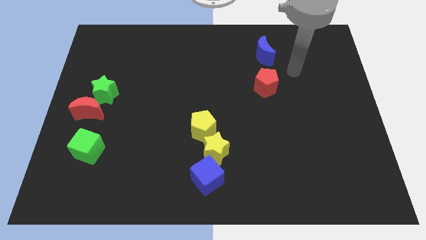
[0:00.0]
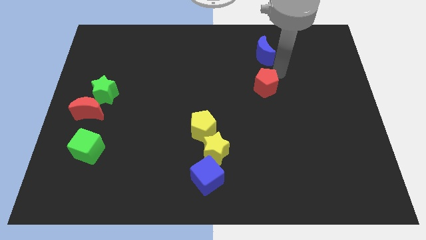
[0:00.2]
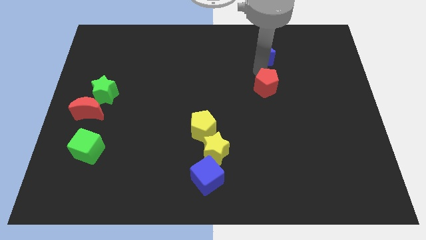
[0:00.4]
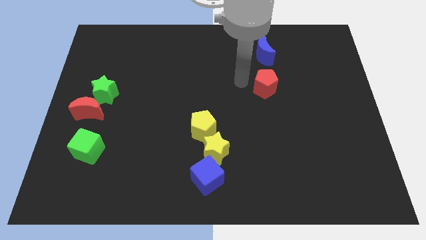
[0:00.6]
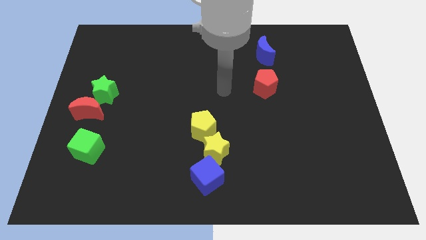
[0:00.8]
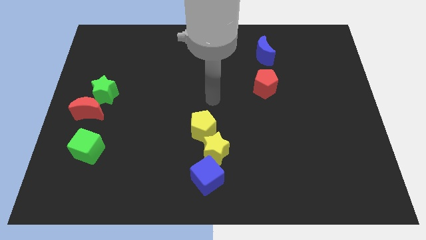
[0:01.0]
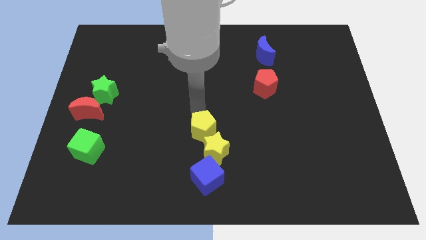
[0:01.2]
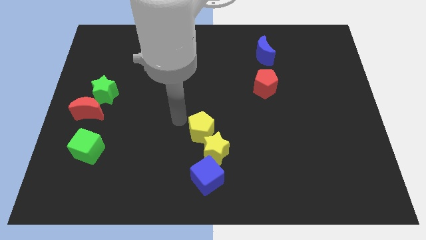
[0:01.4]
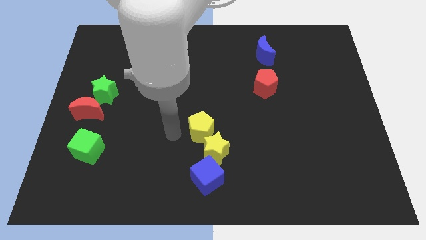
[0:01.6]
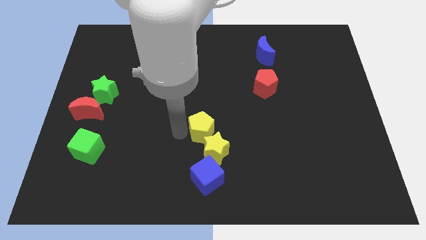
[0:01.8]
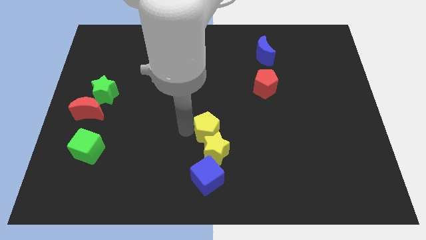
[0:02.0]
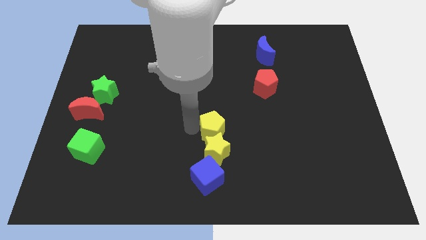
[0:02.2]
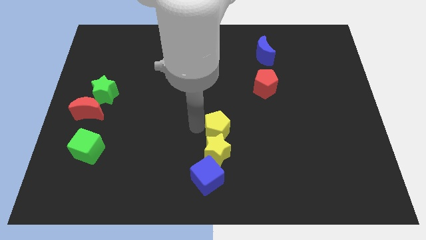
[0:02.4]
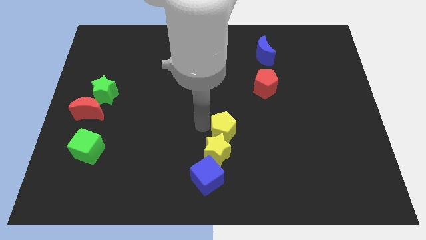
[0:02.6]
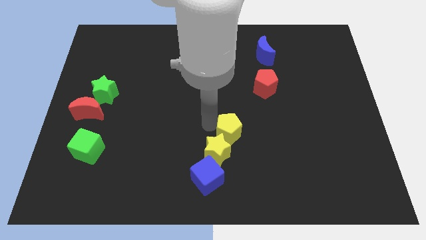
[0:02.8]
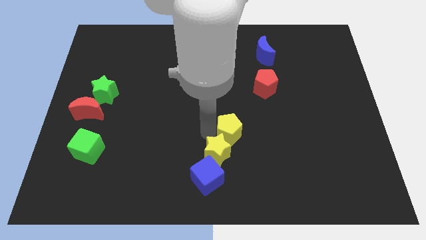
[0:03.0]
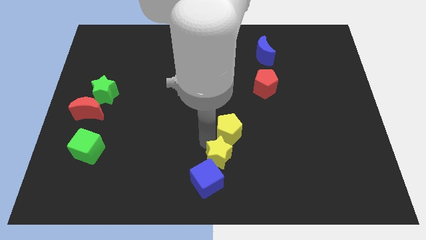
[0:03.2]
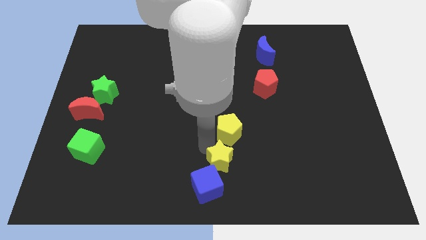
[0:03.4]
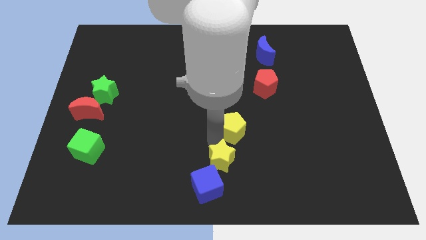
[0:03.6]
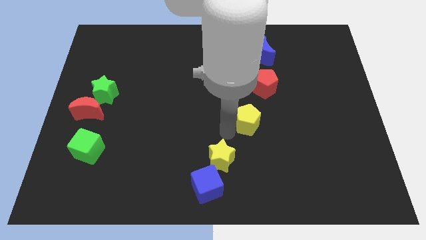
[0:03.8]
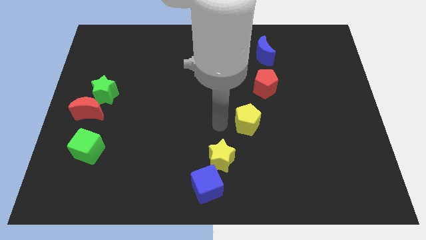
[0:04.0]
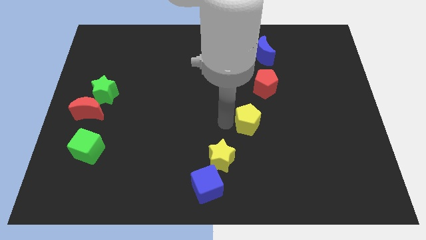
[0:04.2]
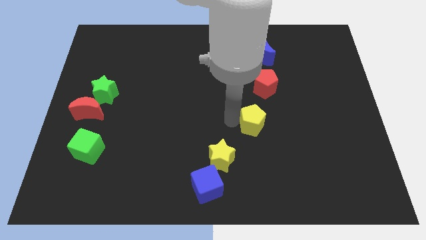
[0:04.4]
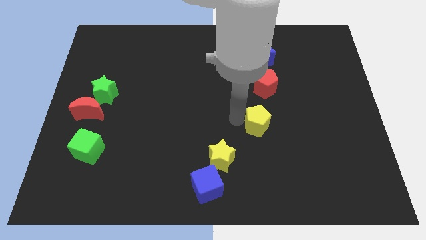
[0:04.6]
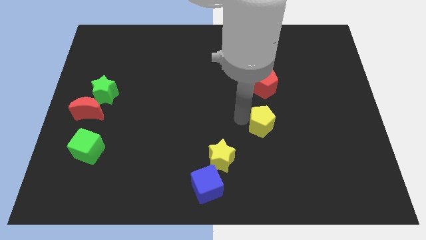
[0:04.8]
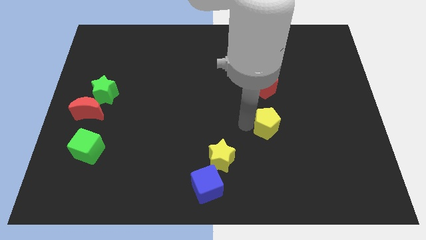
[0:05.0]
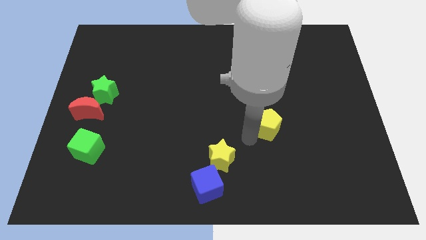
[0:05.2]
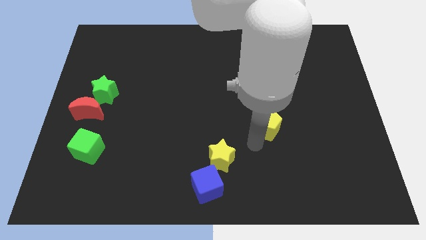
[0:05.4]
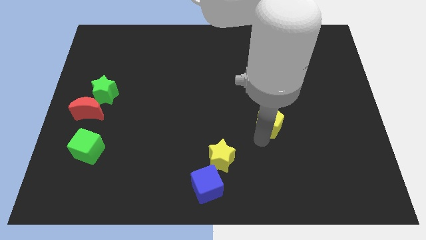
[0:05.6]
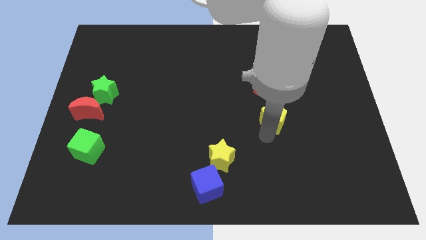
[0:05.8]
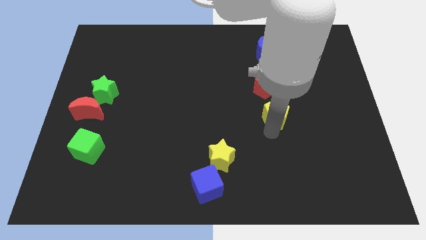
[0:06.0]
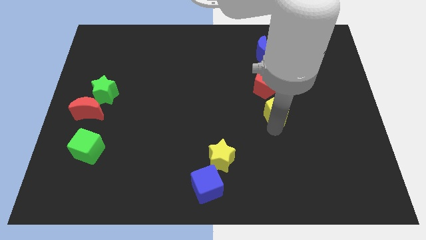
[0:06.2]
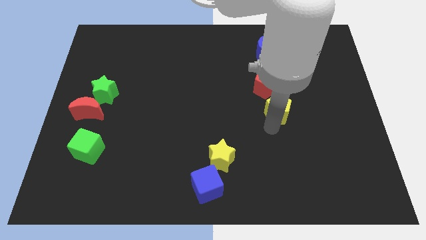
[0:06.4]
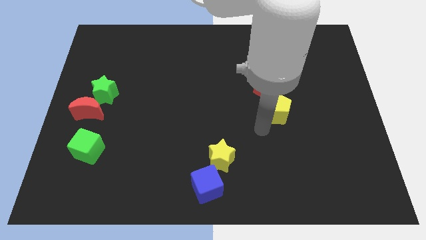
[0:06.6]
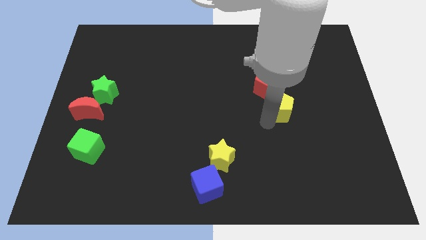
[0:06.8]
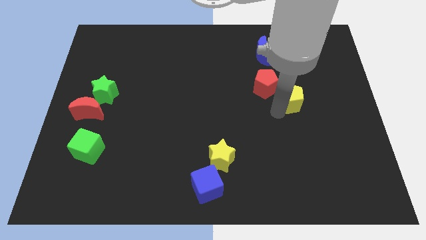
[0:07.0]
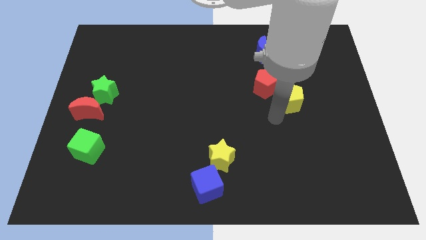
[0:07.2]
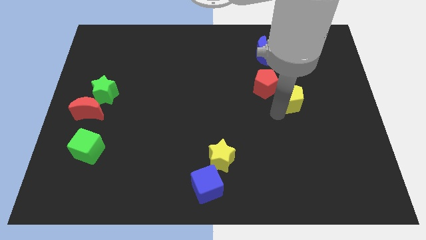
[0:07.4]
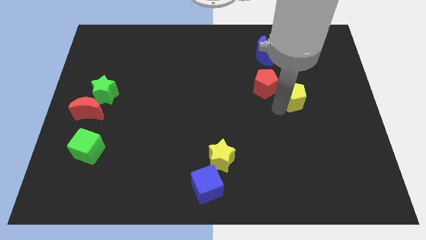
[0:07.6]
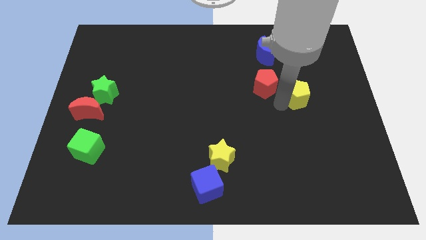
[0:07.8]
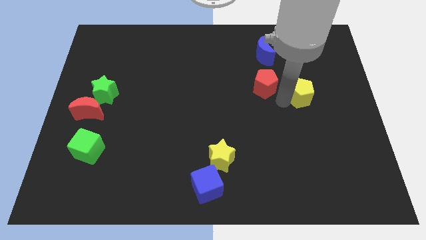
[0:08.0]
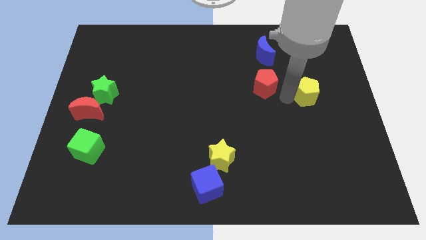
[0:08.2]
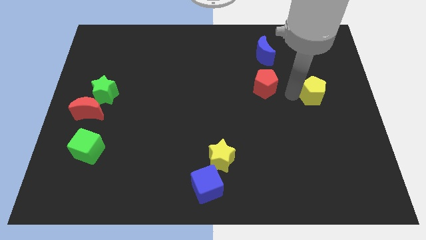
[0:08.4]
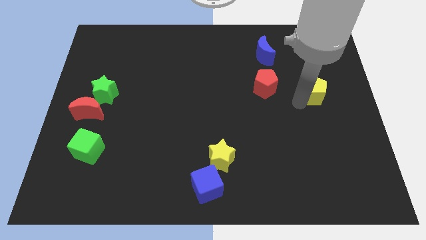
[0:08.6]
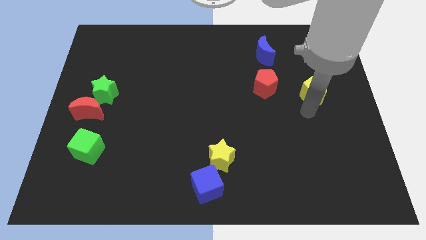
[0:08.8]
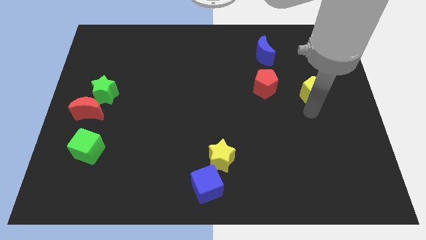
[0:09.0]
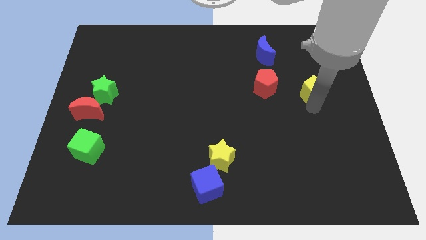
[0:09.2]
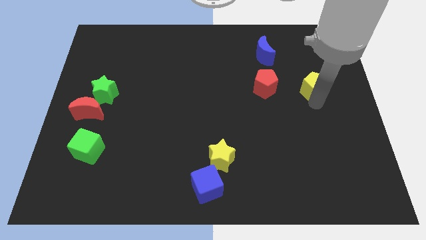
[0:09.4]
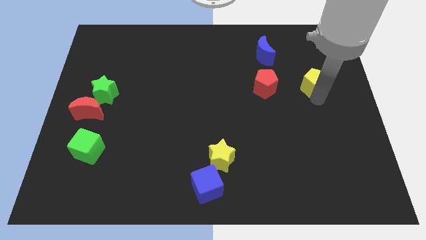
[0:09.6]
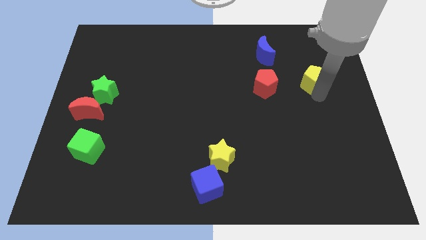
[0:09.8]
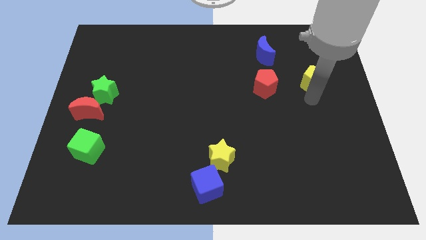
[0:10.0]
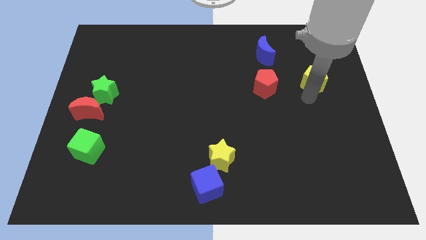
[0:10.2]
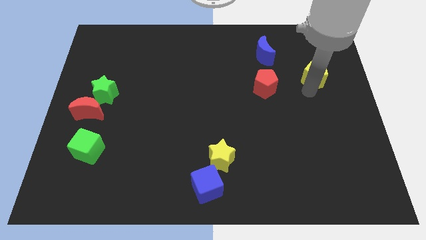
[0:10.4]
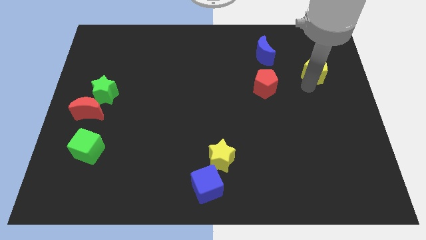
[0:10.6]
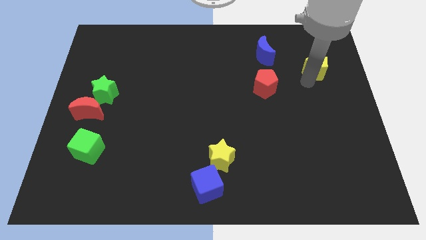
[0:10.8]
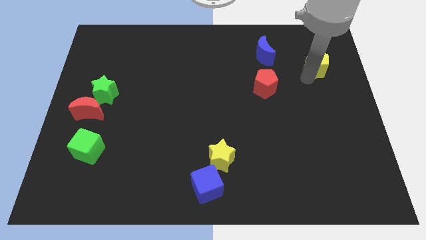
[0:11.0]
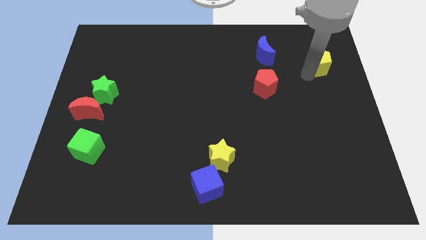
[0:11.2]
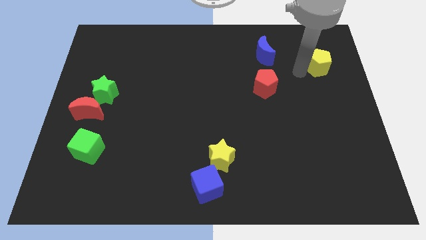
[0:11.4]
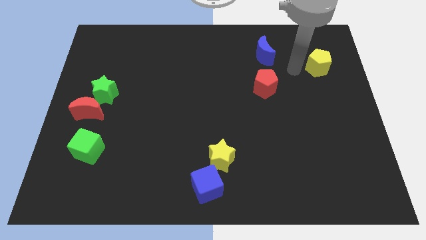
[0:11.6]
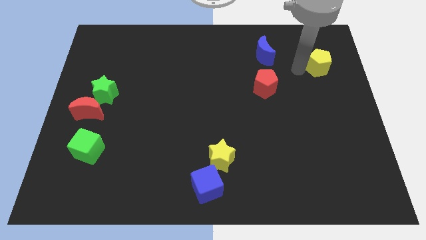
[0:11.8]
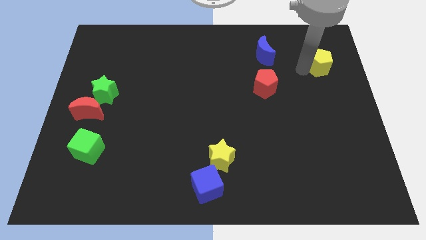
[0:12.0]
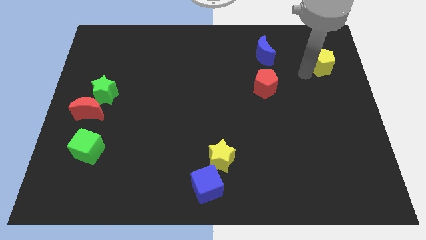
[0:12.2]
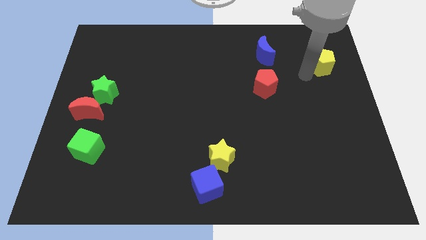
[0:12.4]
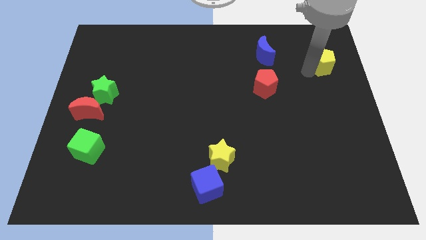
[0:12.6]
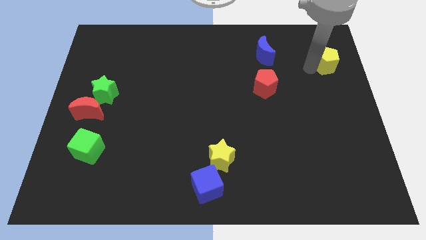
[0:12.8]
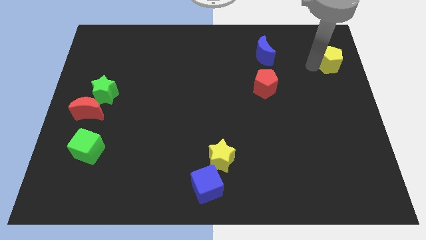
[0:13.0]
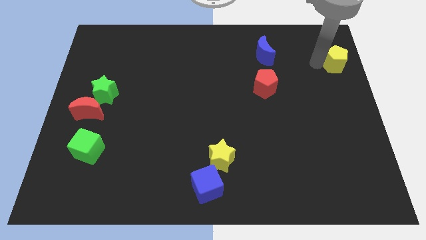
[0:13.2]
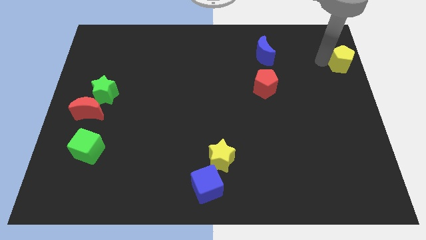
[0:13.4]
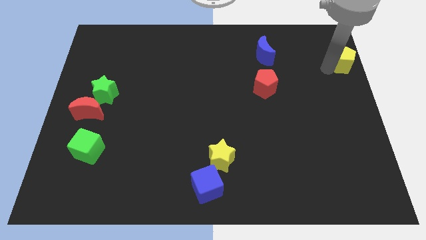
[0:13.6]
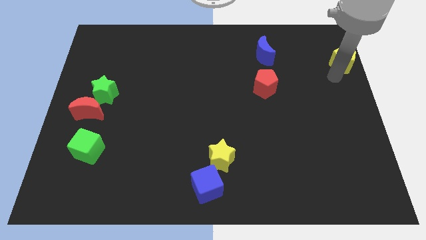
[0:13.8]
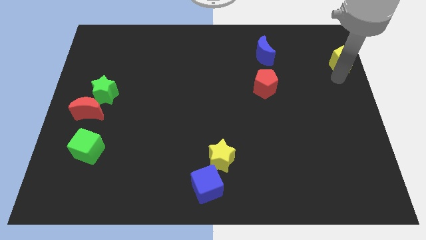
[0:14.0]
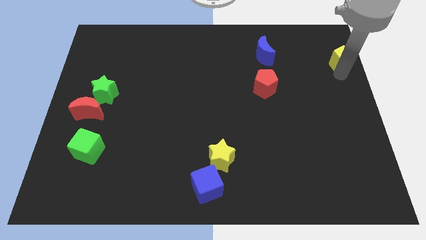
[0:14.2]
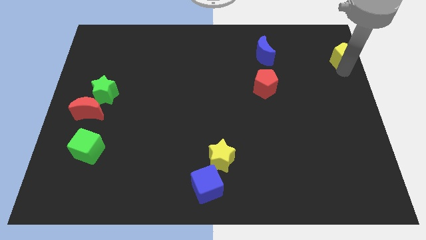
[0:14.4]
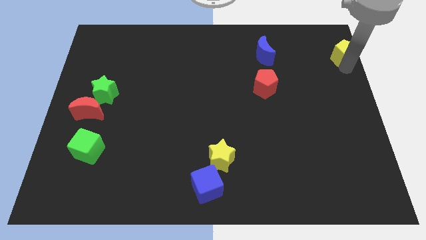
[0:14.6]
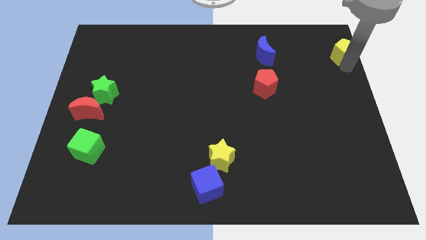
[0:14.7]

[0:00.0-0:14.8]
slide the yellow pentagon to the top right corner
